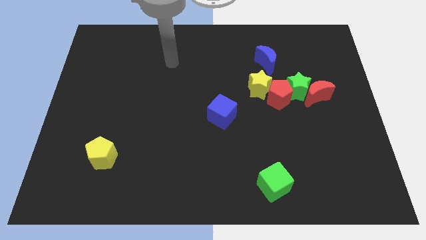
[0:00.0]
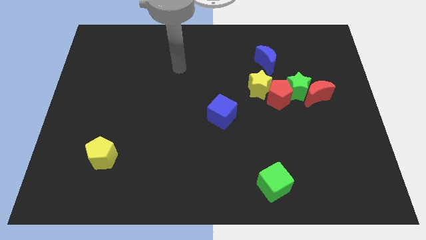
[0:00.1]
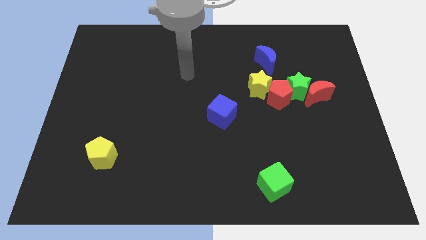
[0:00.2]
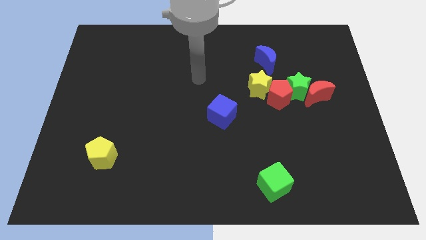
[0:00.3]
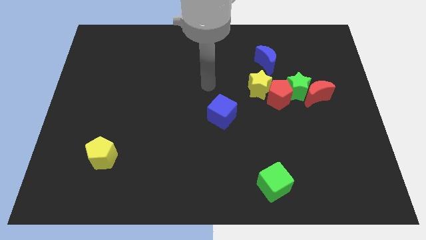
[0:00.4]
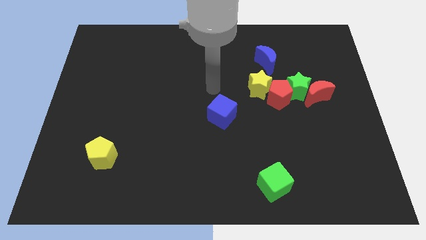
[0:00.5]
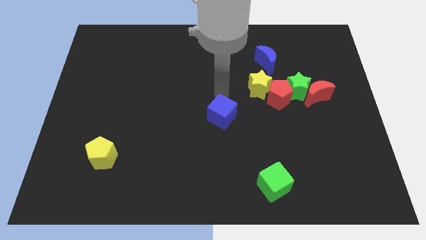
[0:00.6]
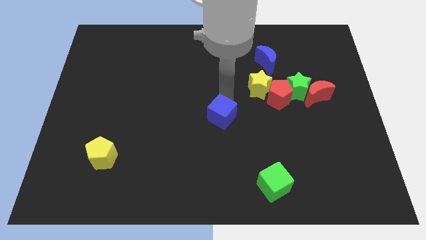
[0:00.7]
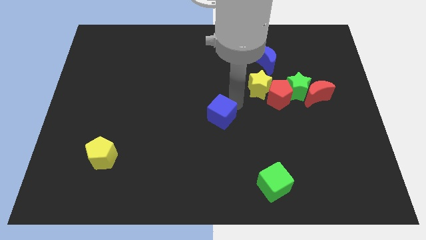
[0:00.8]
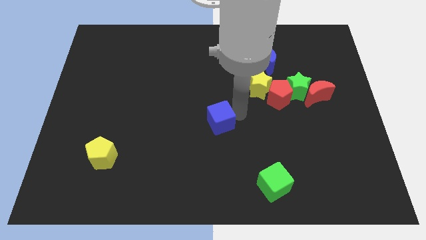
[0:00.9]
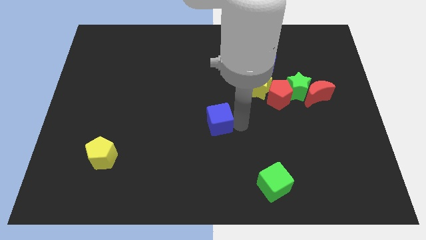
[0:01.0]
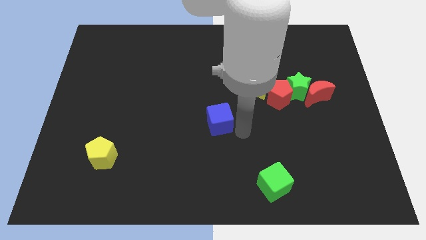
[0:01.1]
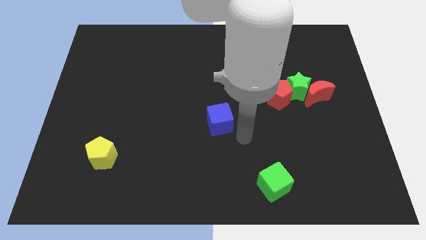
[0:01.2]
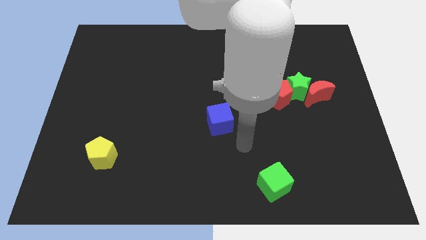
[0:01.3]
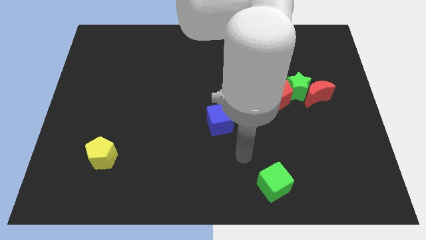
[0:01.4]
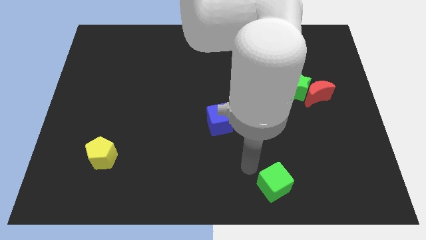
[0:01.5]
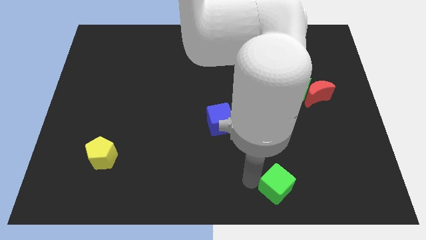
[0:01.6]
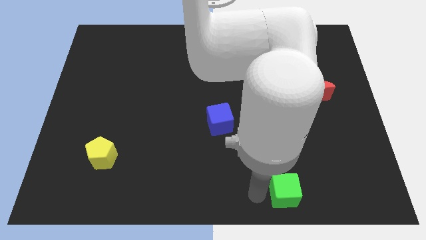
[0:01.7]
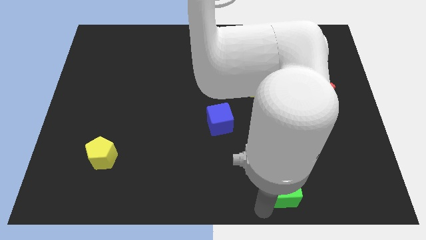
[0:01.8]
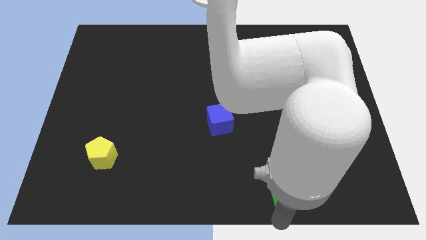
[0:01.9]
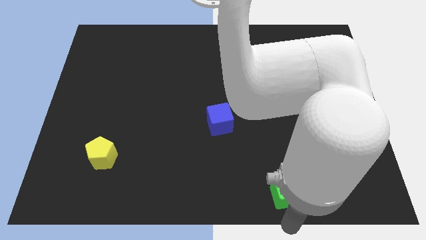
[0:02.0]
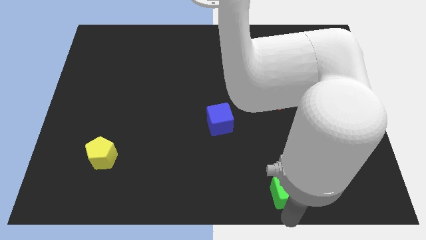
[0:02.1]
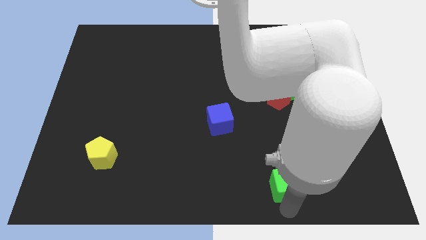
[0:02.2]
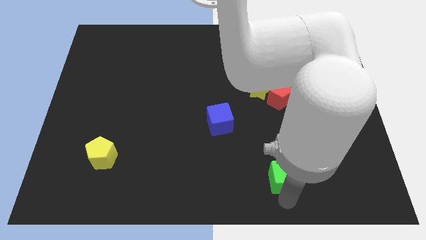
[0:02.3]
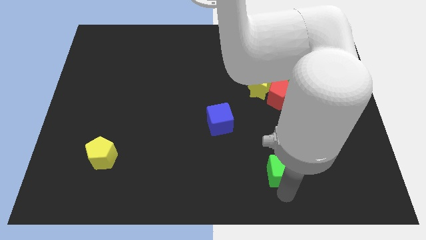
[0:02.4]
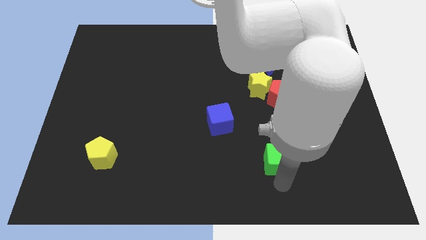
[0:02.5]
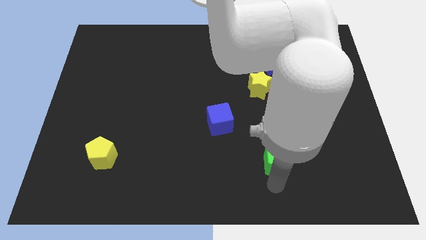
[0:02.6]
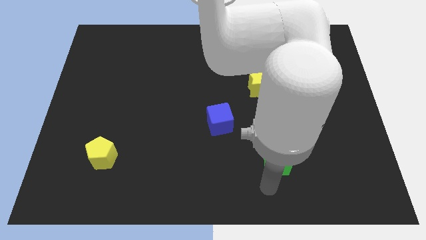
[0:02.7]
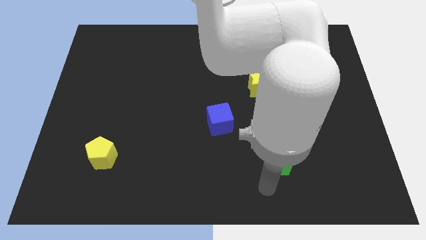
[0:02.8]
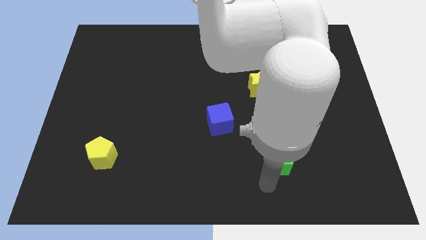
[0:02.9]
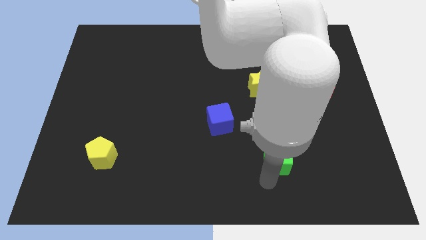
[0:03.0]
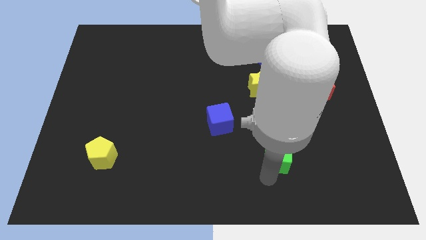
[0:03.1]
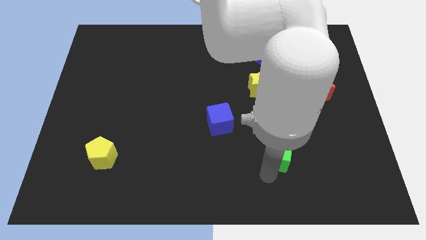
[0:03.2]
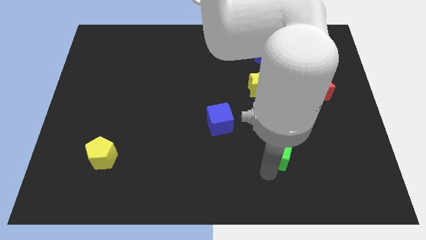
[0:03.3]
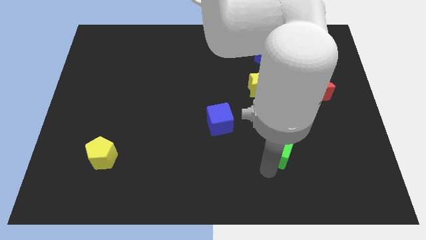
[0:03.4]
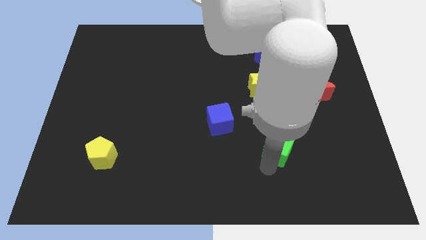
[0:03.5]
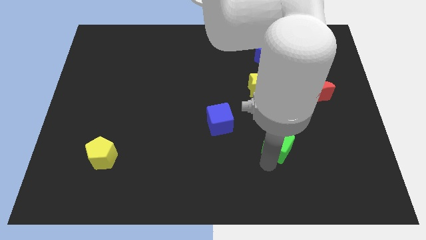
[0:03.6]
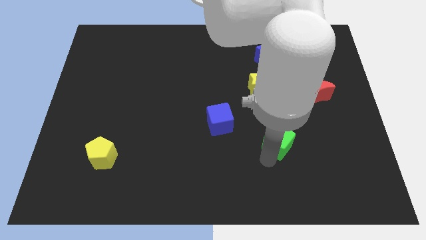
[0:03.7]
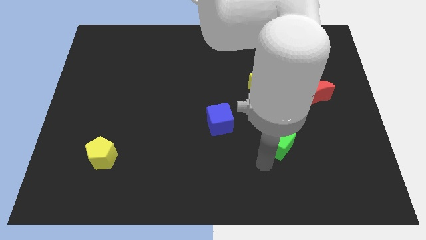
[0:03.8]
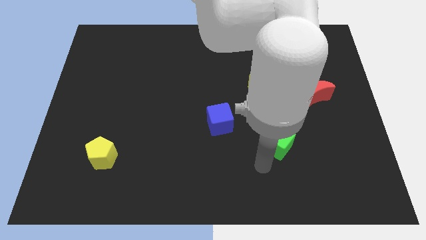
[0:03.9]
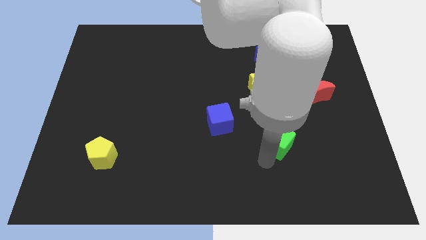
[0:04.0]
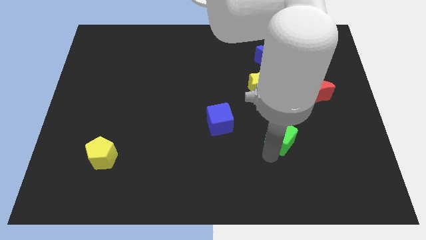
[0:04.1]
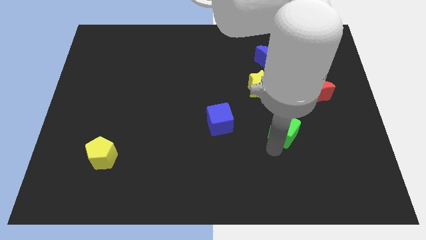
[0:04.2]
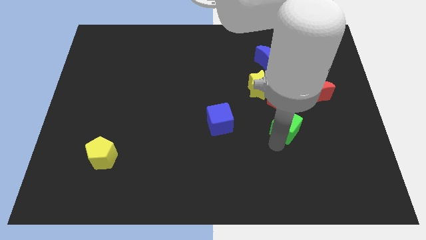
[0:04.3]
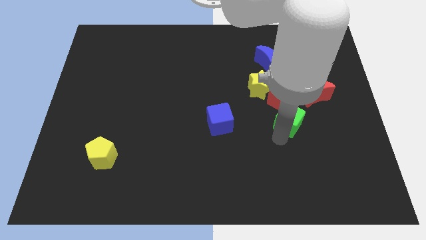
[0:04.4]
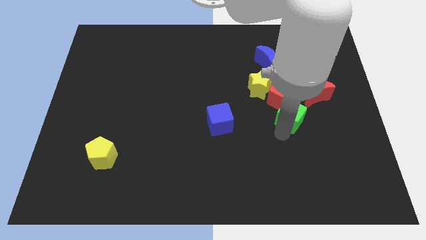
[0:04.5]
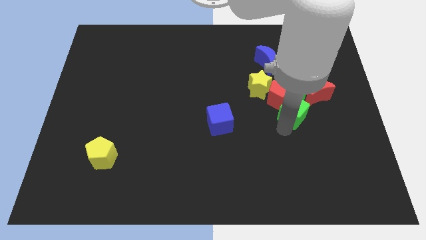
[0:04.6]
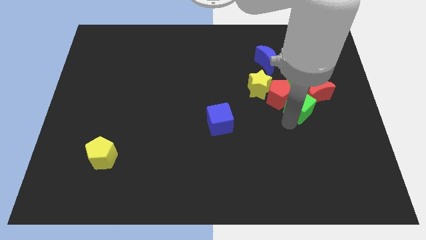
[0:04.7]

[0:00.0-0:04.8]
move the green cube towards the green star

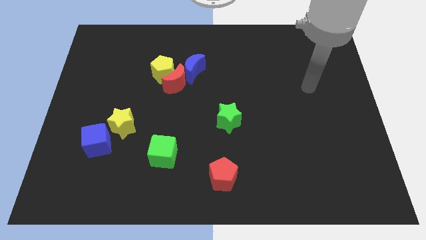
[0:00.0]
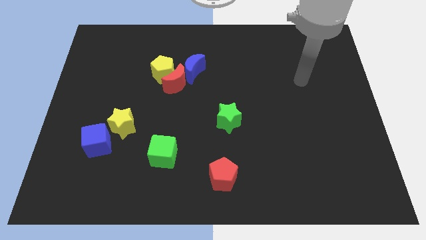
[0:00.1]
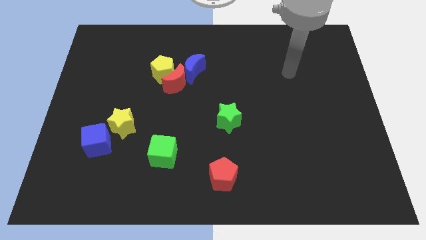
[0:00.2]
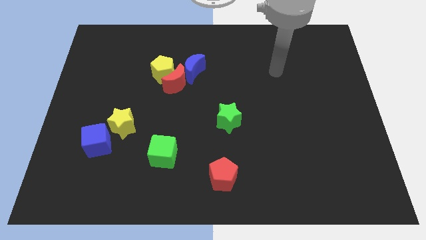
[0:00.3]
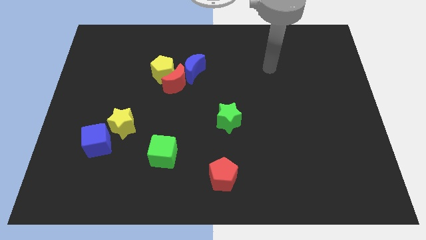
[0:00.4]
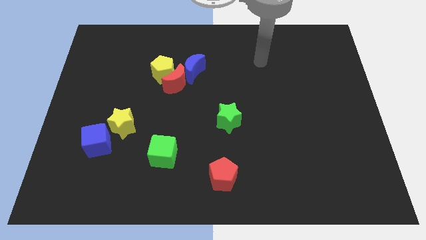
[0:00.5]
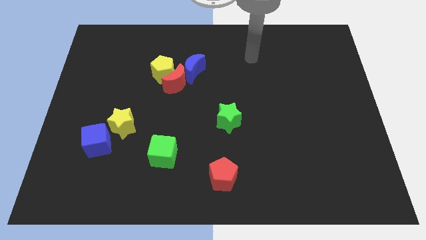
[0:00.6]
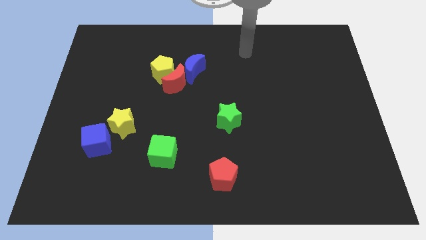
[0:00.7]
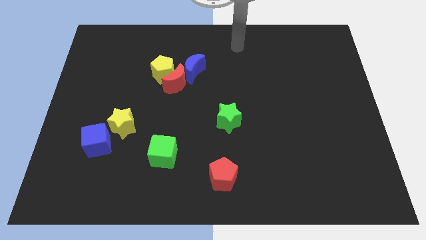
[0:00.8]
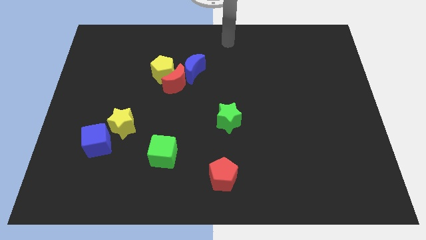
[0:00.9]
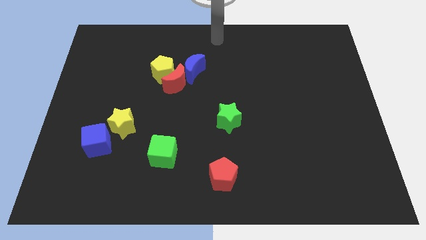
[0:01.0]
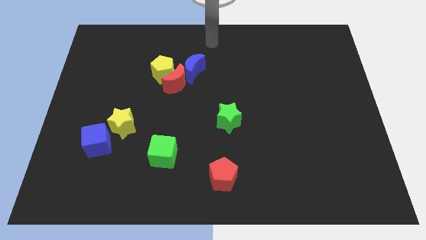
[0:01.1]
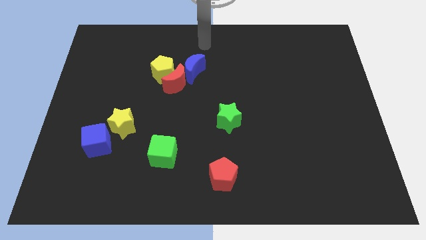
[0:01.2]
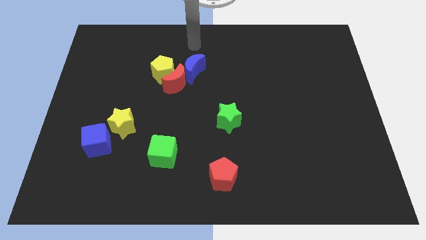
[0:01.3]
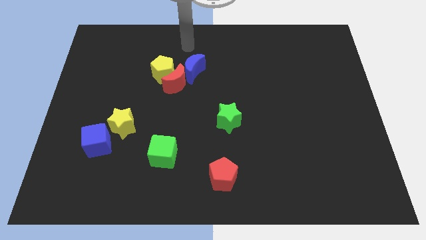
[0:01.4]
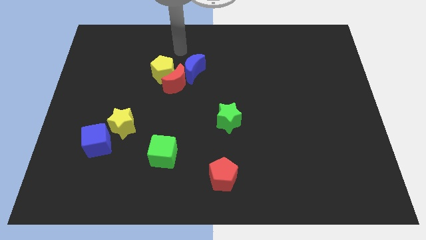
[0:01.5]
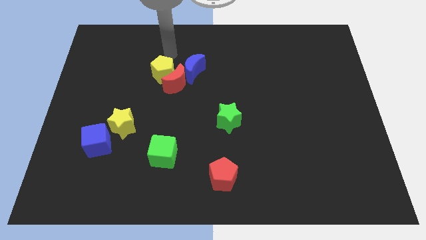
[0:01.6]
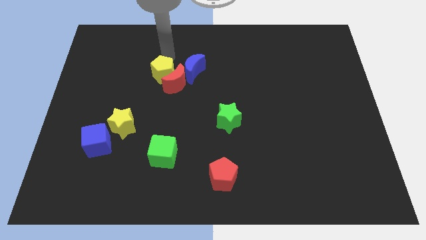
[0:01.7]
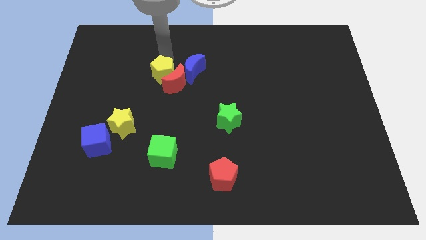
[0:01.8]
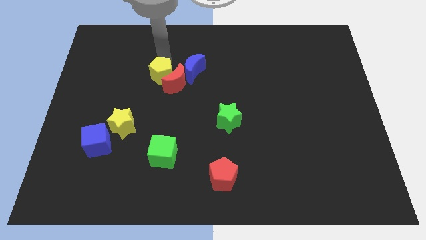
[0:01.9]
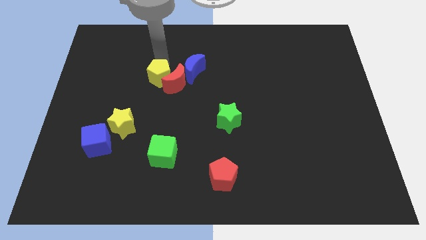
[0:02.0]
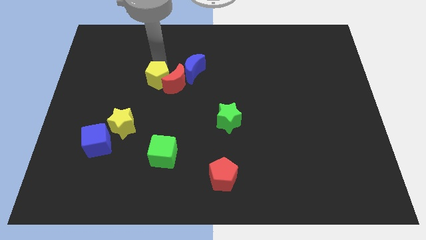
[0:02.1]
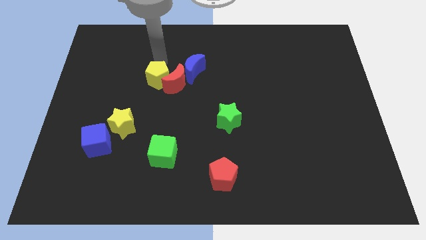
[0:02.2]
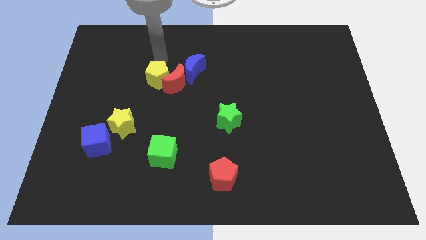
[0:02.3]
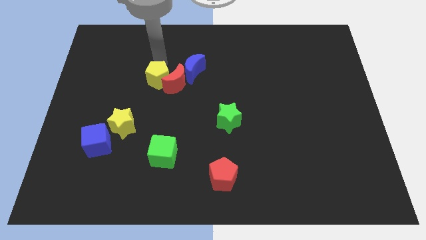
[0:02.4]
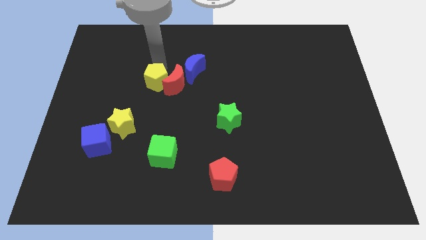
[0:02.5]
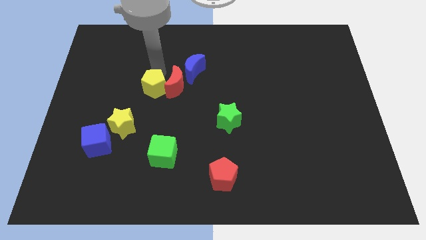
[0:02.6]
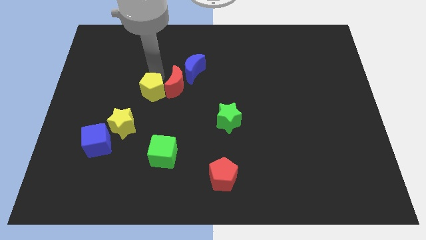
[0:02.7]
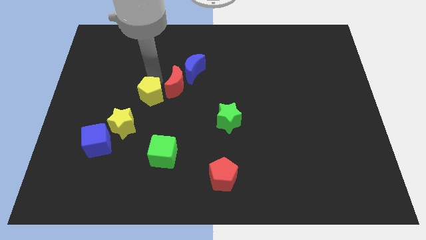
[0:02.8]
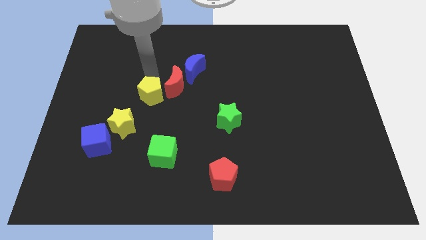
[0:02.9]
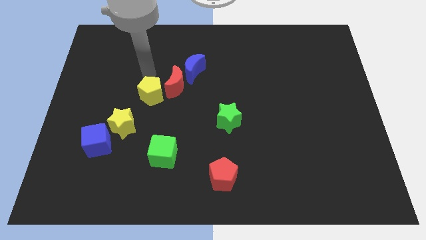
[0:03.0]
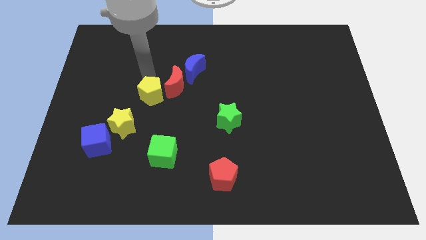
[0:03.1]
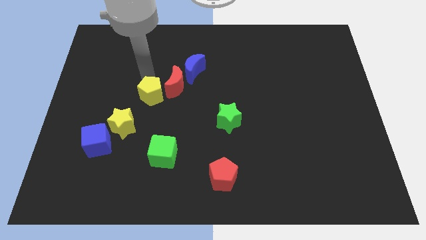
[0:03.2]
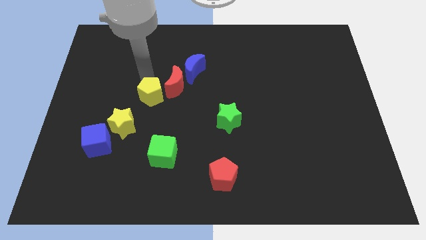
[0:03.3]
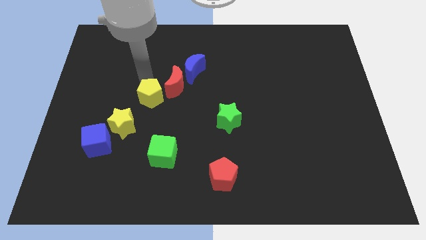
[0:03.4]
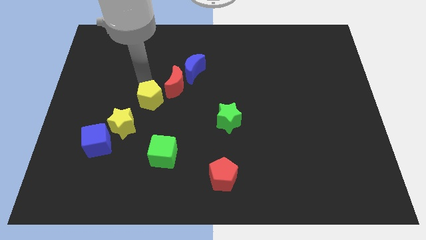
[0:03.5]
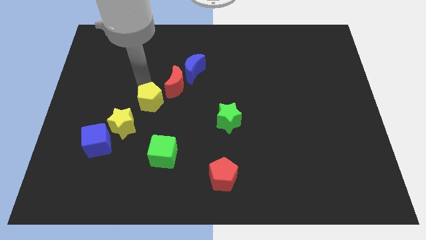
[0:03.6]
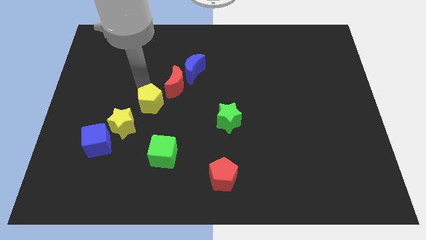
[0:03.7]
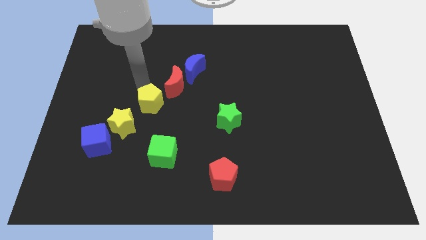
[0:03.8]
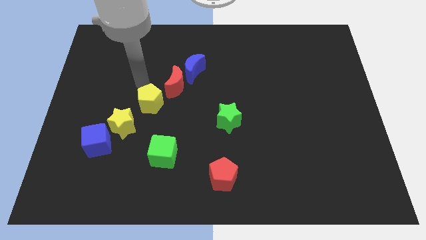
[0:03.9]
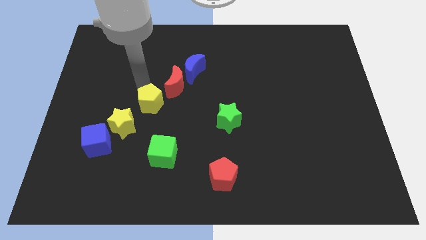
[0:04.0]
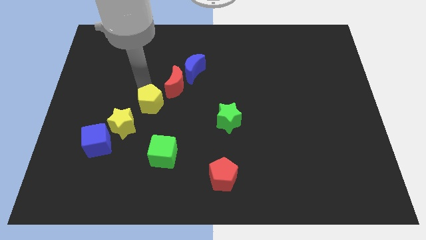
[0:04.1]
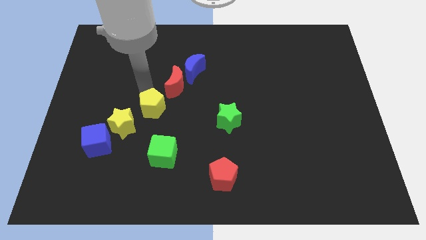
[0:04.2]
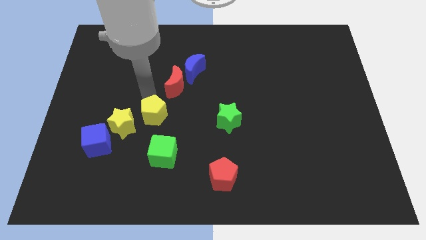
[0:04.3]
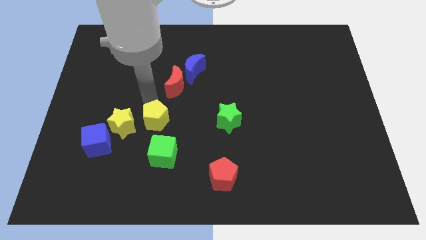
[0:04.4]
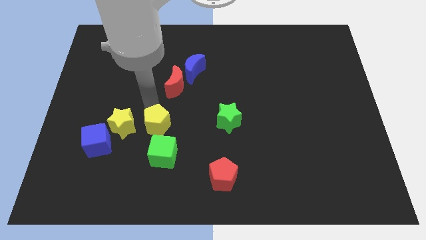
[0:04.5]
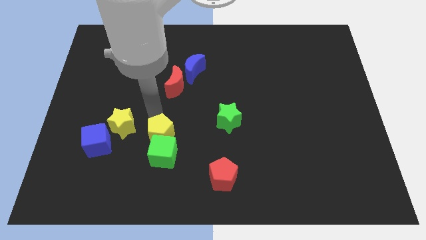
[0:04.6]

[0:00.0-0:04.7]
move the yellow pentagon next to the green cube
